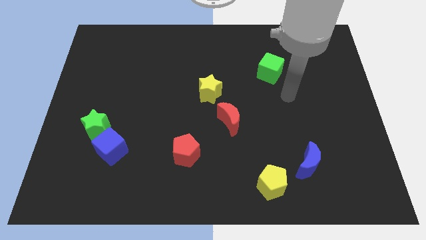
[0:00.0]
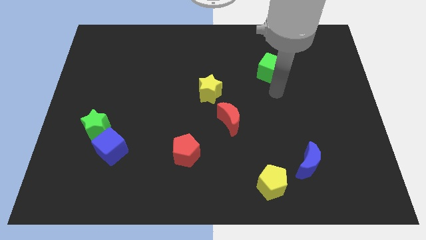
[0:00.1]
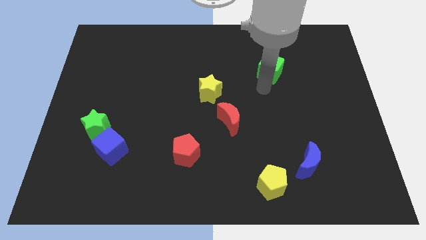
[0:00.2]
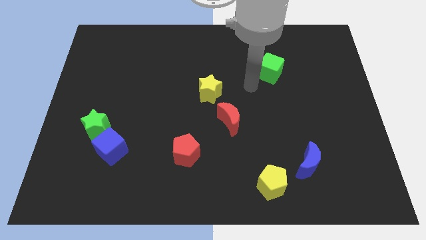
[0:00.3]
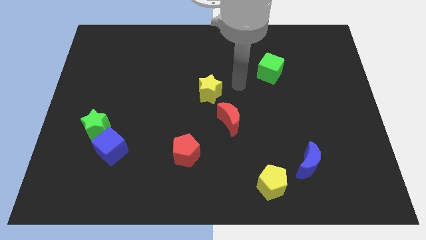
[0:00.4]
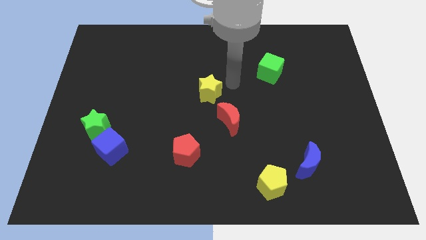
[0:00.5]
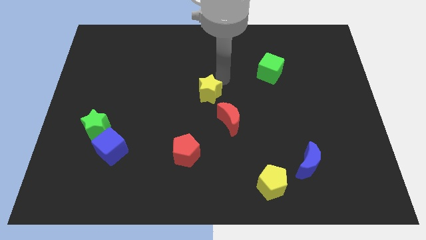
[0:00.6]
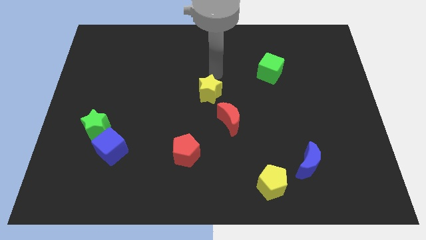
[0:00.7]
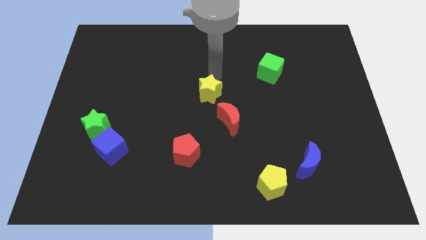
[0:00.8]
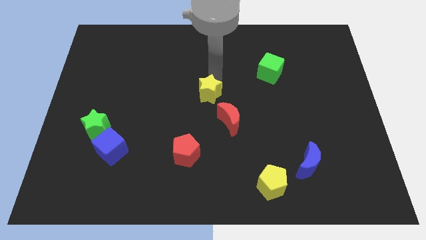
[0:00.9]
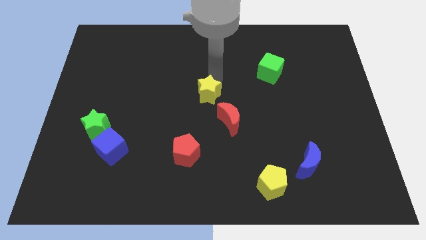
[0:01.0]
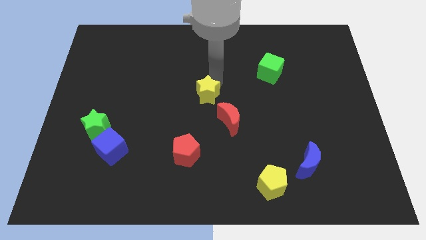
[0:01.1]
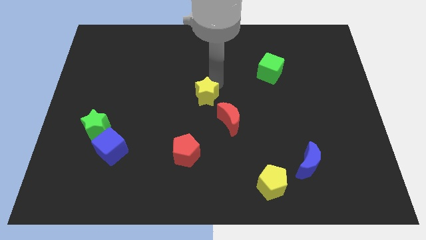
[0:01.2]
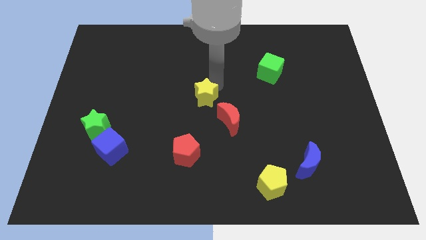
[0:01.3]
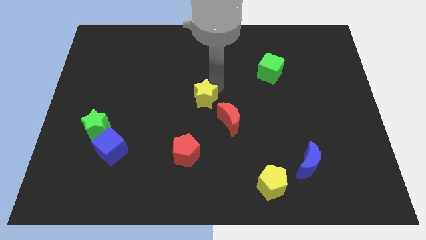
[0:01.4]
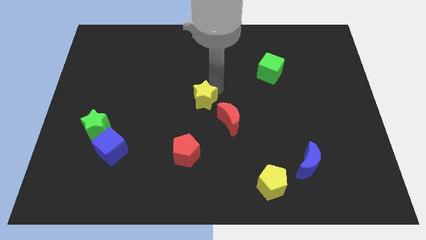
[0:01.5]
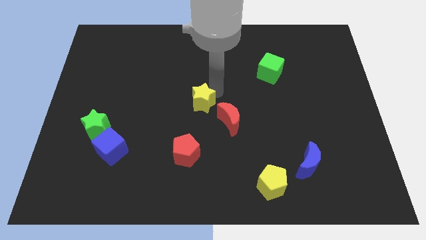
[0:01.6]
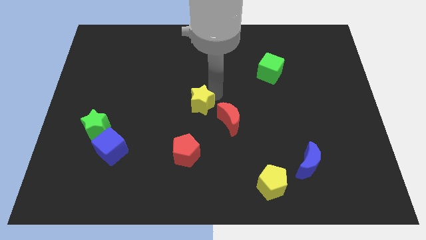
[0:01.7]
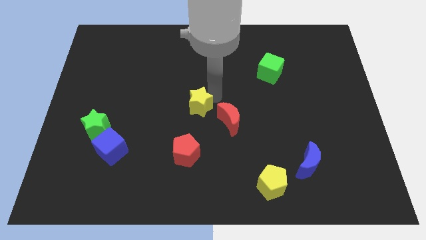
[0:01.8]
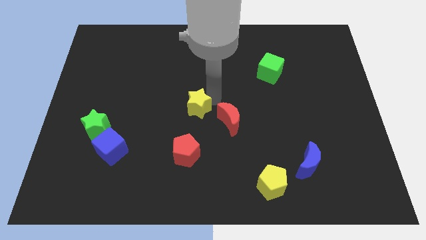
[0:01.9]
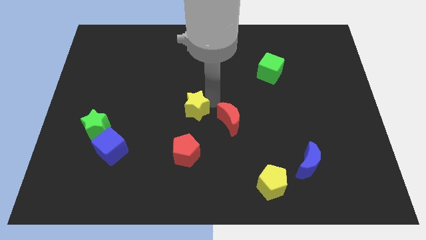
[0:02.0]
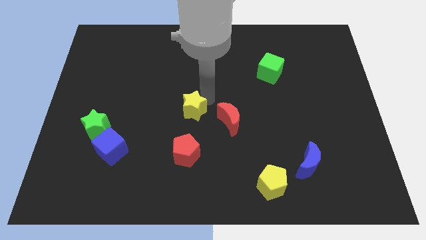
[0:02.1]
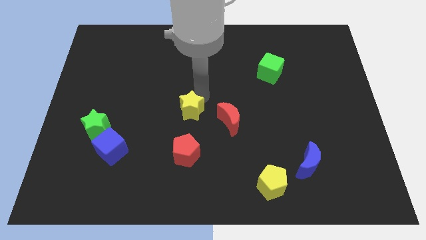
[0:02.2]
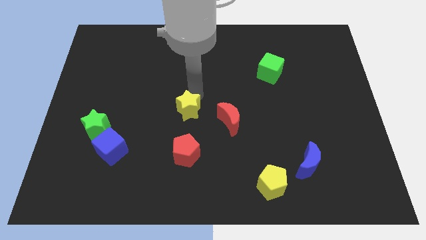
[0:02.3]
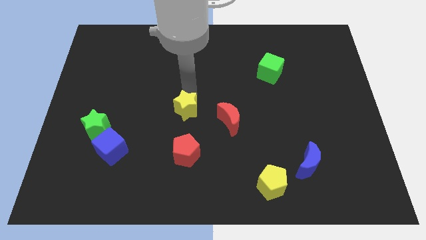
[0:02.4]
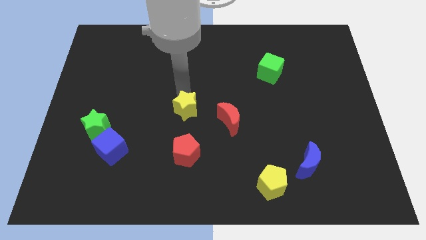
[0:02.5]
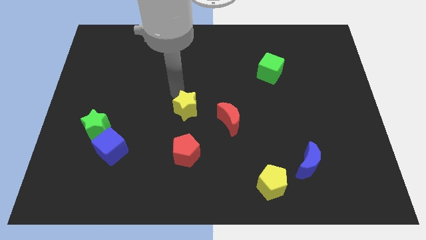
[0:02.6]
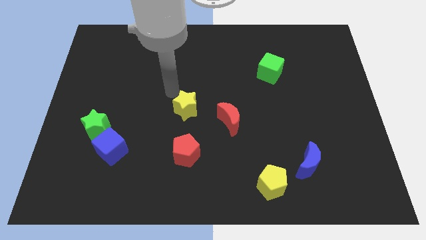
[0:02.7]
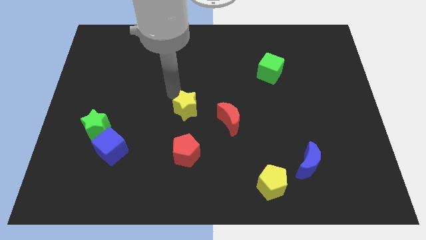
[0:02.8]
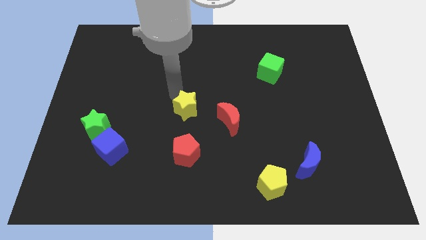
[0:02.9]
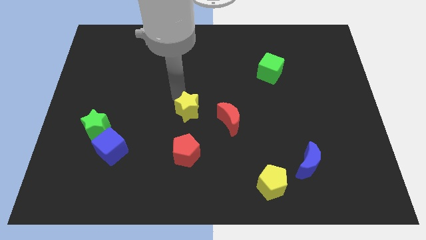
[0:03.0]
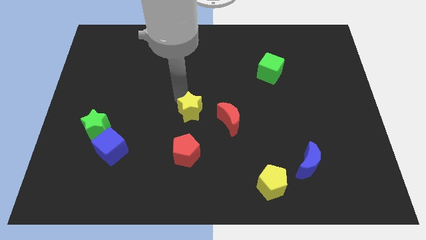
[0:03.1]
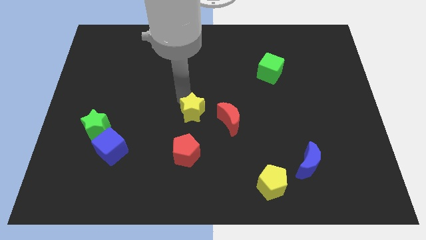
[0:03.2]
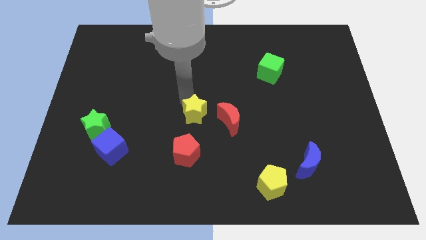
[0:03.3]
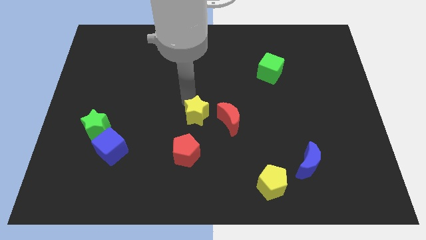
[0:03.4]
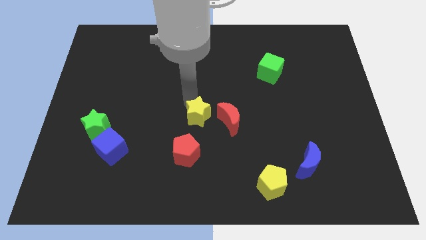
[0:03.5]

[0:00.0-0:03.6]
slide the yellow star a little bit downwards

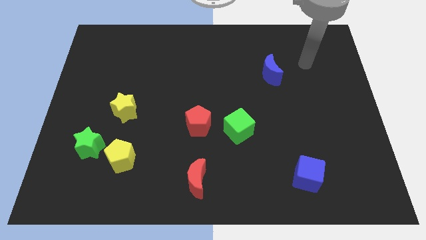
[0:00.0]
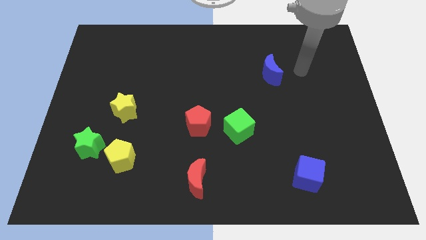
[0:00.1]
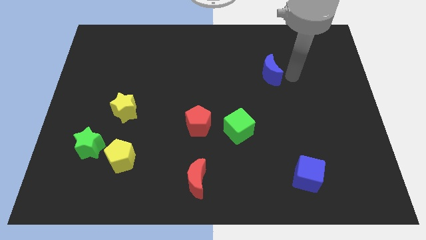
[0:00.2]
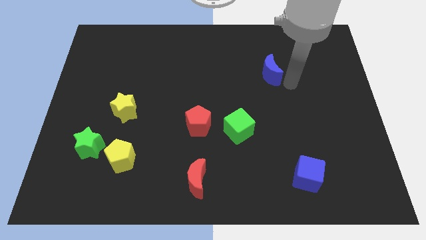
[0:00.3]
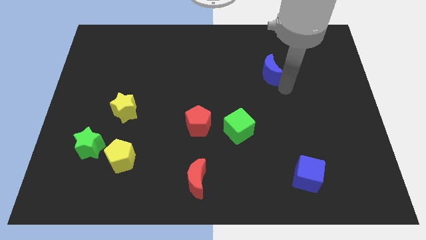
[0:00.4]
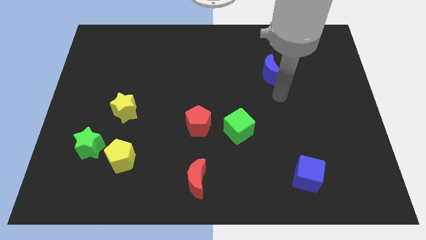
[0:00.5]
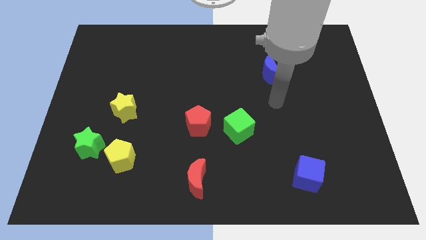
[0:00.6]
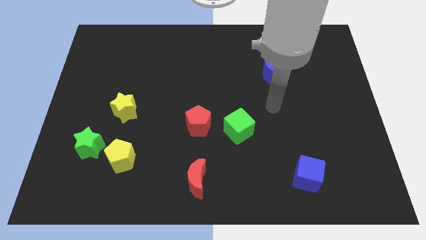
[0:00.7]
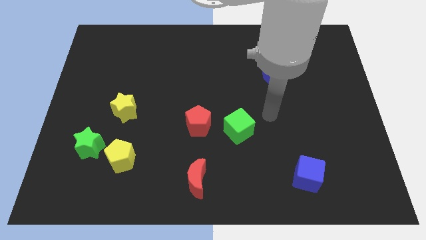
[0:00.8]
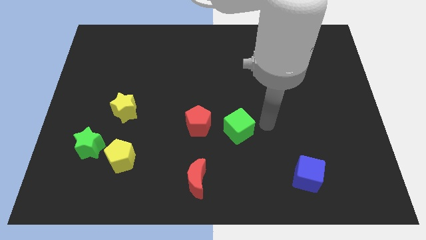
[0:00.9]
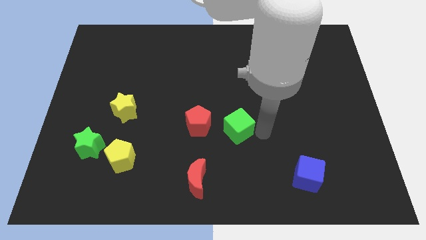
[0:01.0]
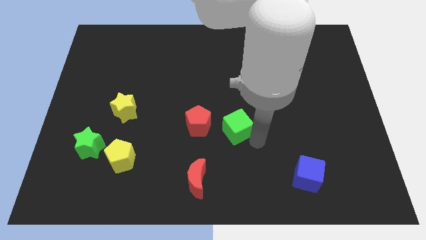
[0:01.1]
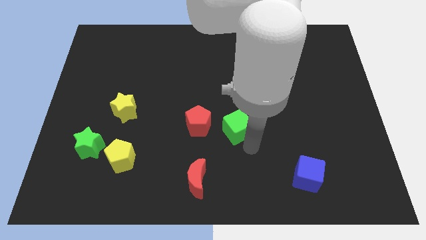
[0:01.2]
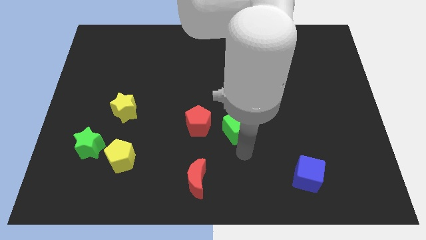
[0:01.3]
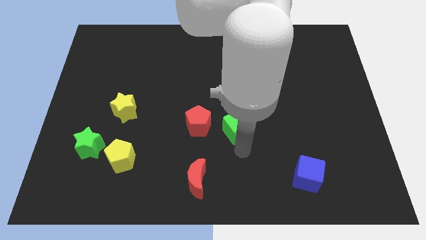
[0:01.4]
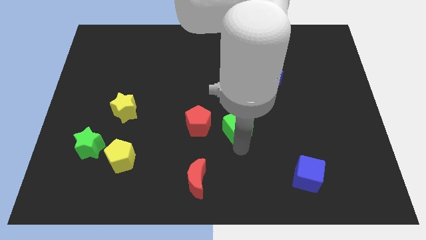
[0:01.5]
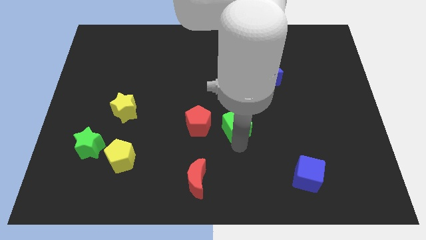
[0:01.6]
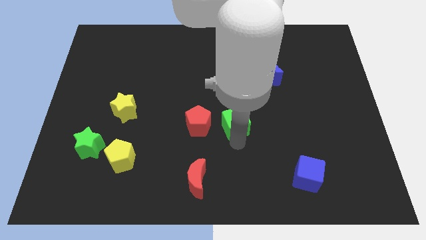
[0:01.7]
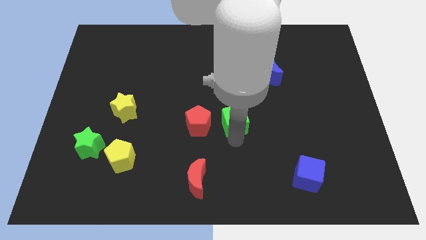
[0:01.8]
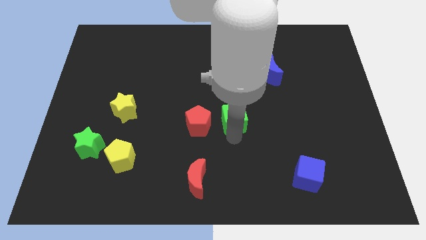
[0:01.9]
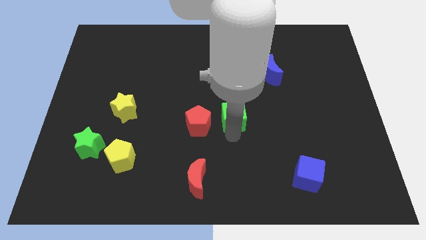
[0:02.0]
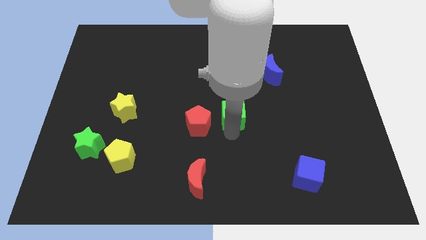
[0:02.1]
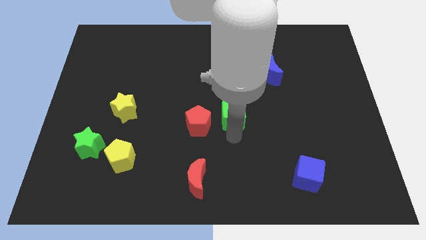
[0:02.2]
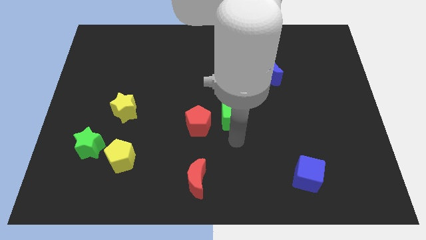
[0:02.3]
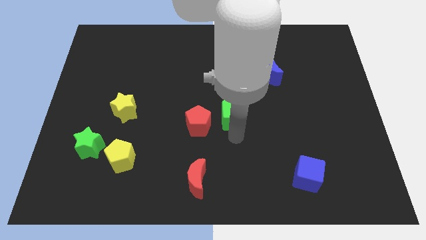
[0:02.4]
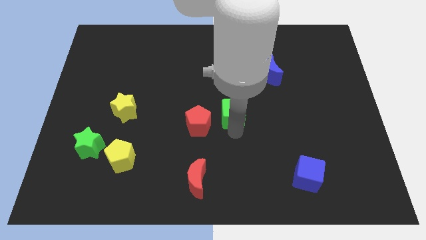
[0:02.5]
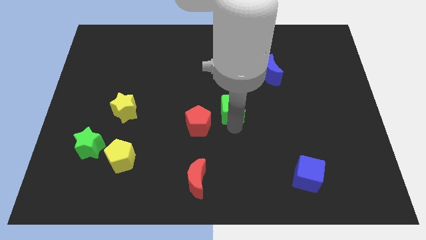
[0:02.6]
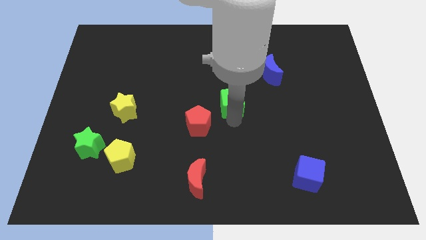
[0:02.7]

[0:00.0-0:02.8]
push the green cube upwards a bit

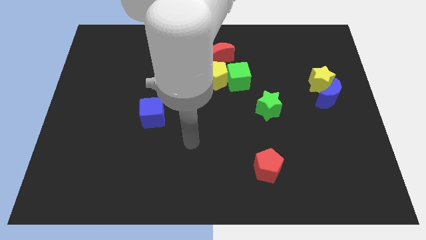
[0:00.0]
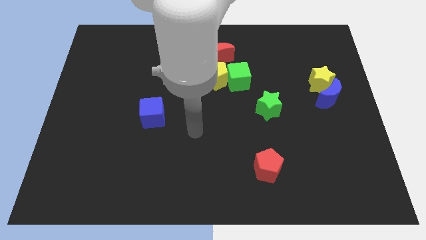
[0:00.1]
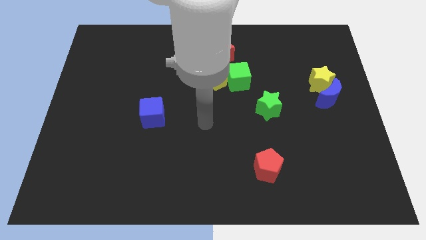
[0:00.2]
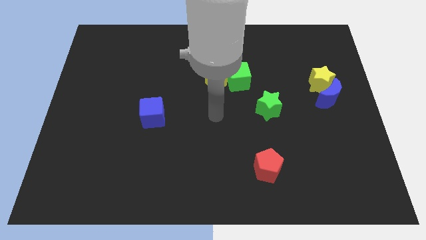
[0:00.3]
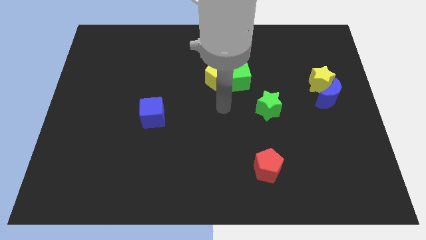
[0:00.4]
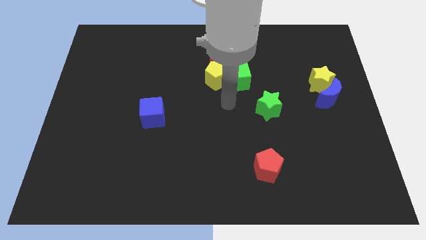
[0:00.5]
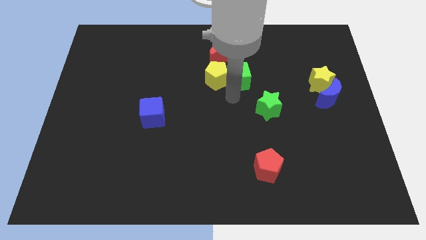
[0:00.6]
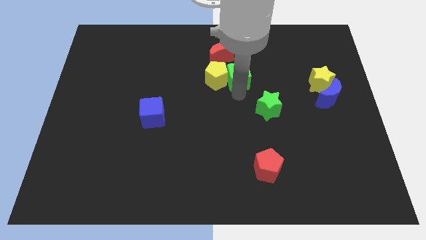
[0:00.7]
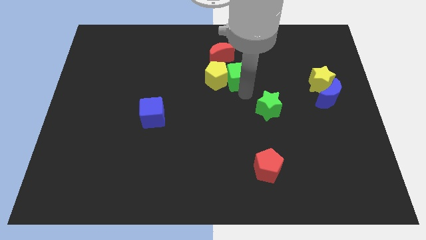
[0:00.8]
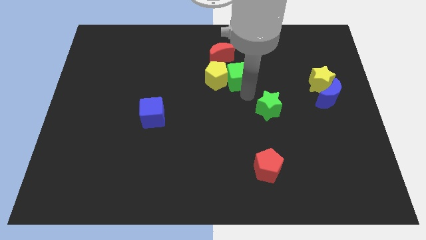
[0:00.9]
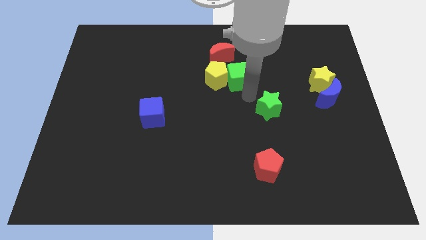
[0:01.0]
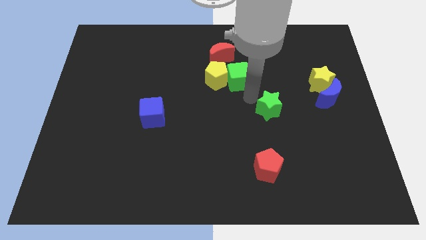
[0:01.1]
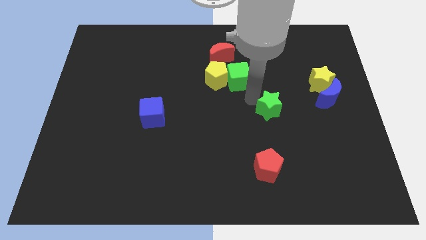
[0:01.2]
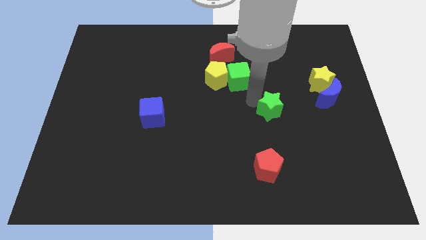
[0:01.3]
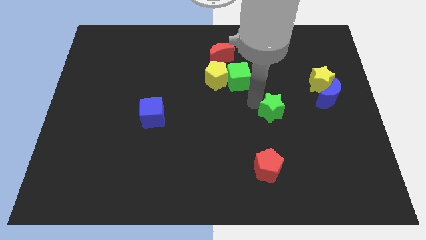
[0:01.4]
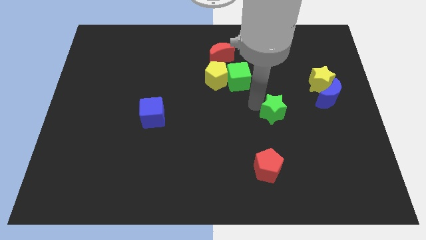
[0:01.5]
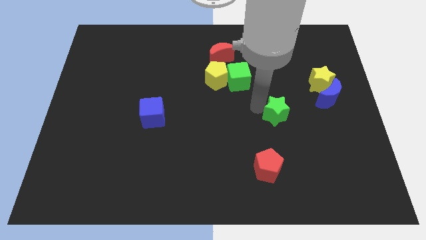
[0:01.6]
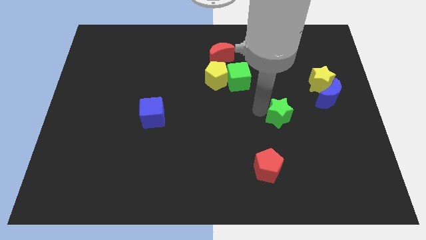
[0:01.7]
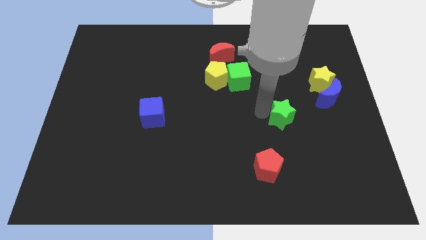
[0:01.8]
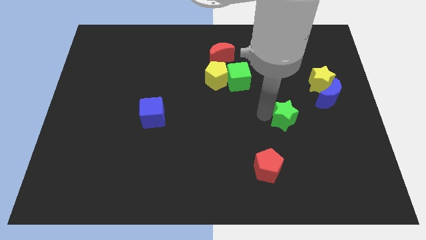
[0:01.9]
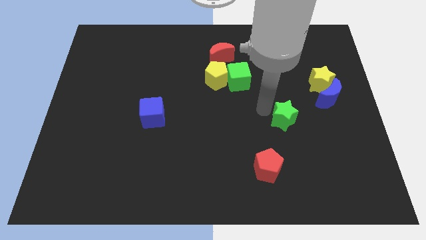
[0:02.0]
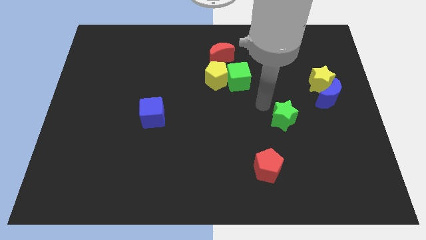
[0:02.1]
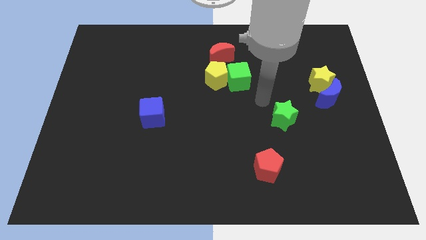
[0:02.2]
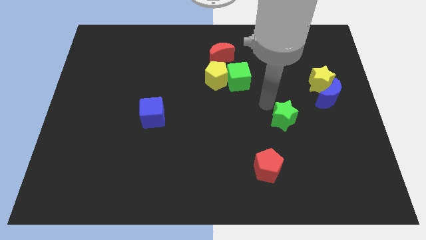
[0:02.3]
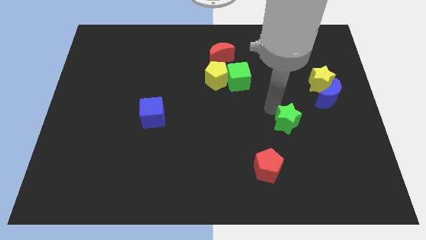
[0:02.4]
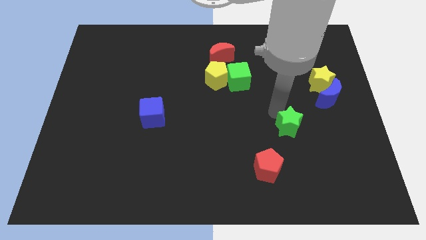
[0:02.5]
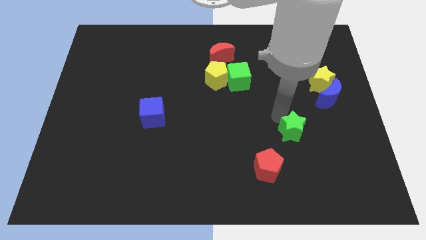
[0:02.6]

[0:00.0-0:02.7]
push the green star down and to the right diagonally slightly
